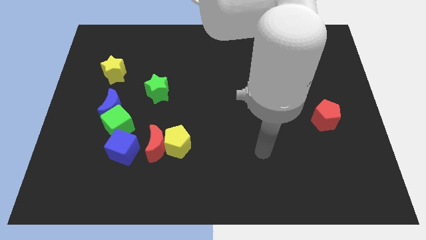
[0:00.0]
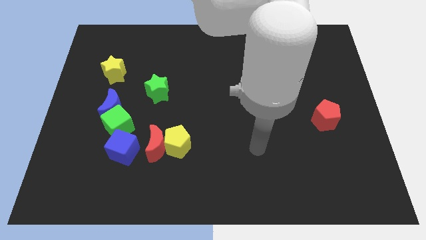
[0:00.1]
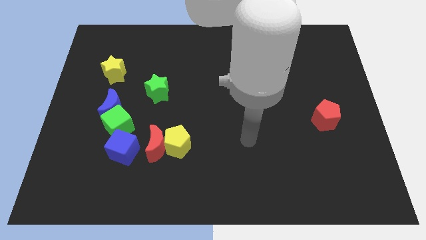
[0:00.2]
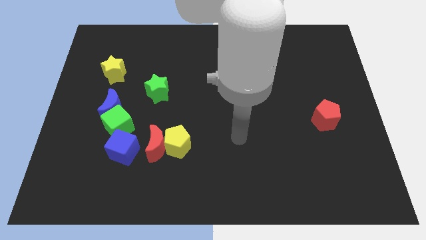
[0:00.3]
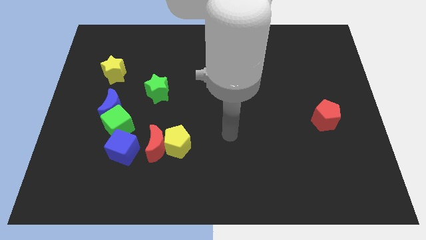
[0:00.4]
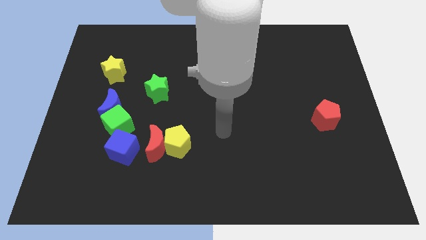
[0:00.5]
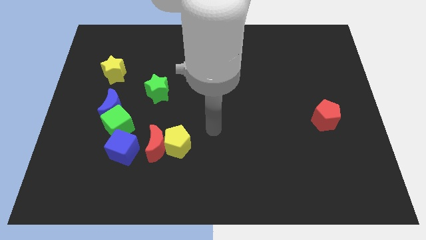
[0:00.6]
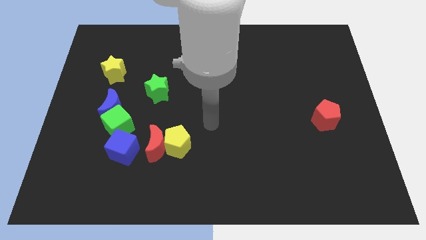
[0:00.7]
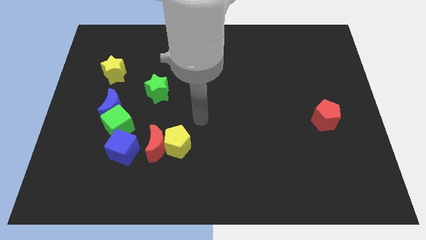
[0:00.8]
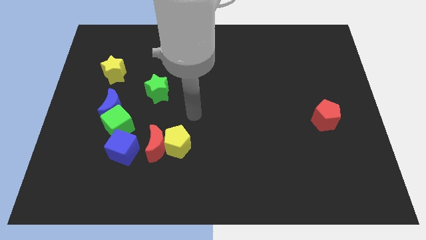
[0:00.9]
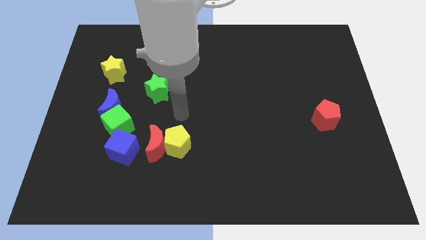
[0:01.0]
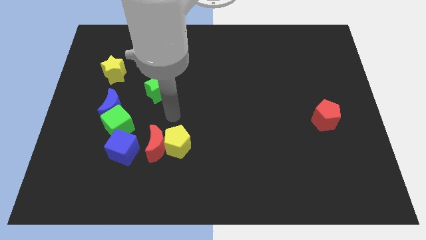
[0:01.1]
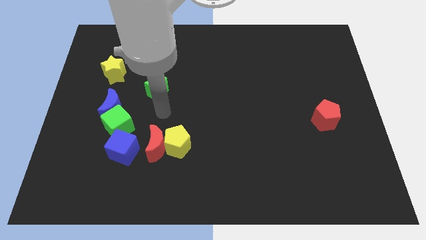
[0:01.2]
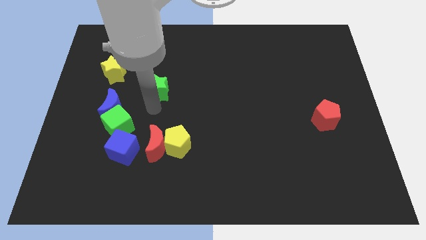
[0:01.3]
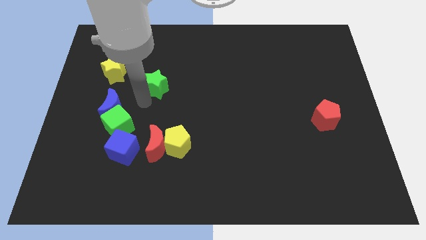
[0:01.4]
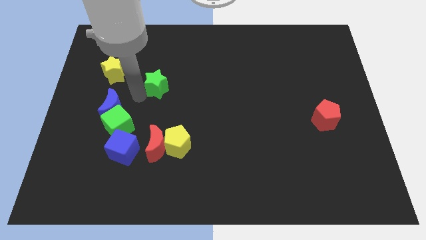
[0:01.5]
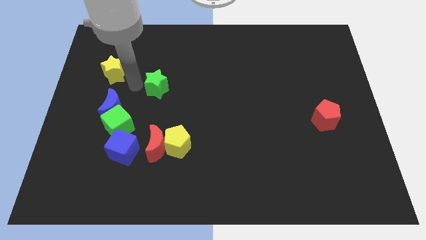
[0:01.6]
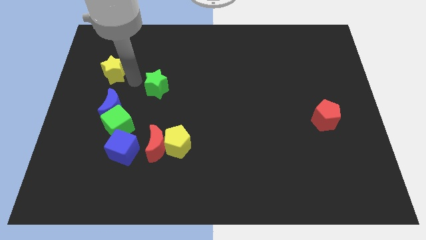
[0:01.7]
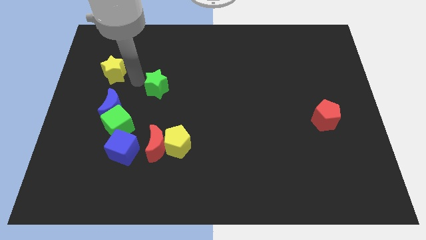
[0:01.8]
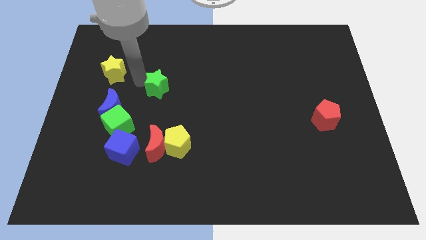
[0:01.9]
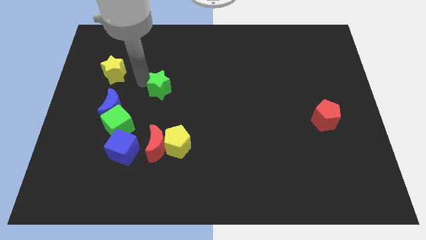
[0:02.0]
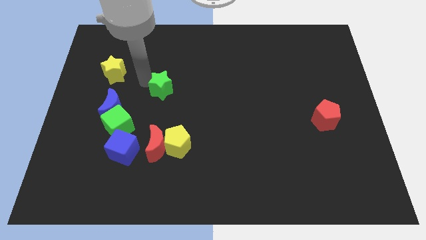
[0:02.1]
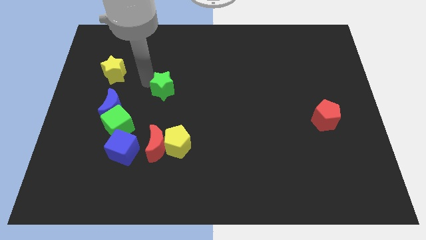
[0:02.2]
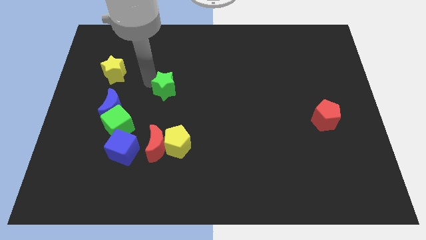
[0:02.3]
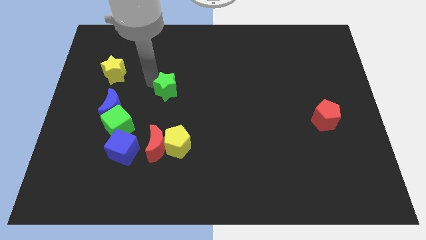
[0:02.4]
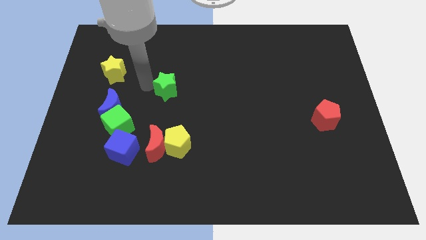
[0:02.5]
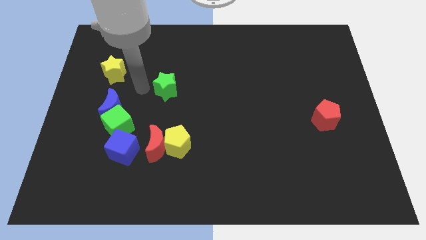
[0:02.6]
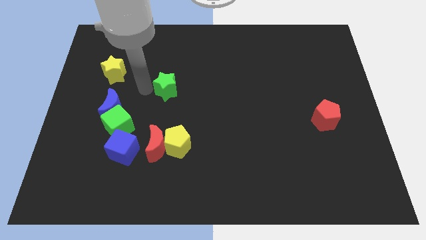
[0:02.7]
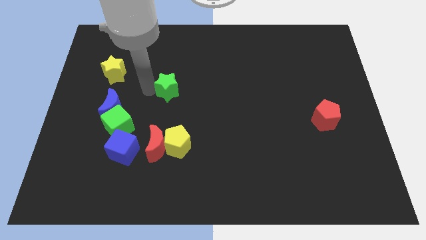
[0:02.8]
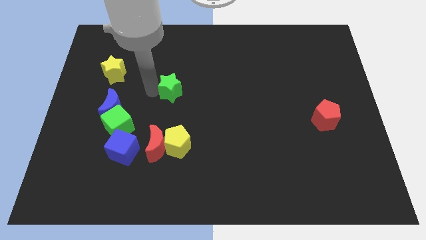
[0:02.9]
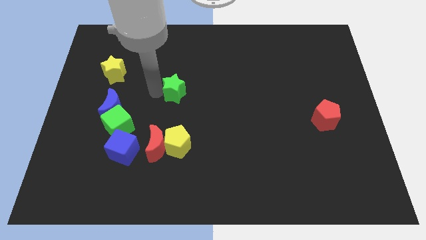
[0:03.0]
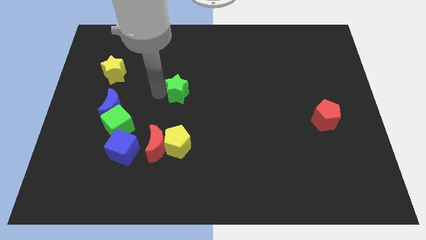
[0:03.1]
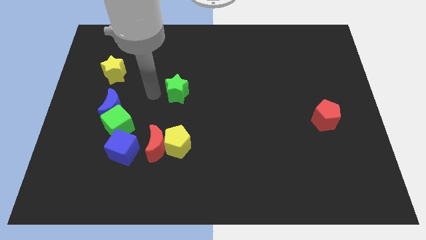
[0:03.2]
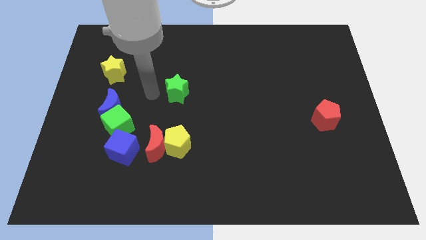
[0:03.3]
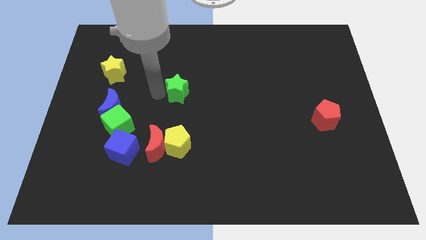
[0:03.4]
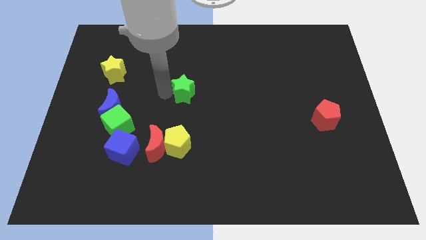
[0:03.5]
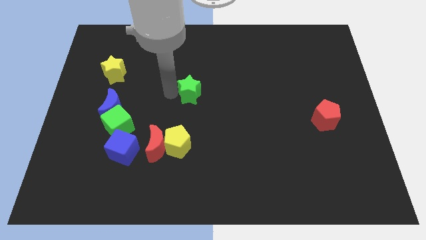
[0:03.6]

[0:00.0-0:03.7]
slightly slide the green star right

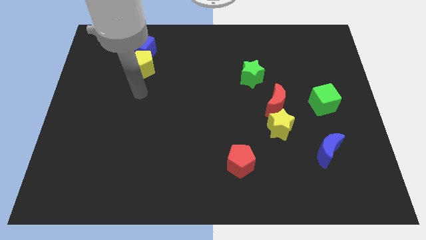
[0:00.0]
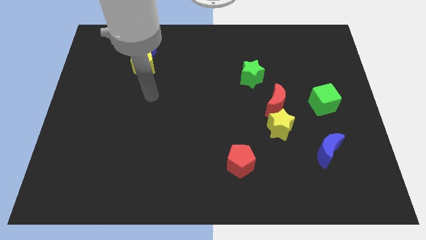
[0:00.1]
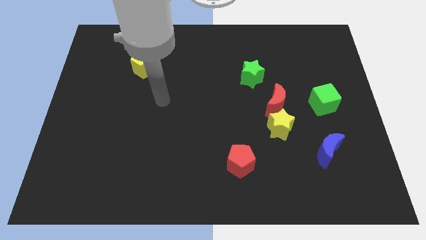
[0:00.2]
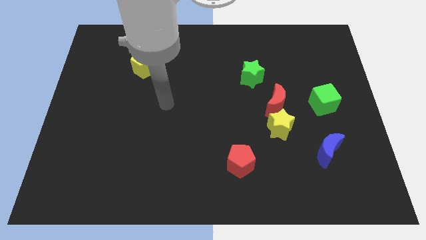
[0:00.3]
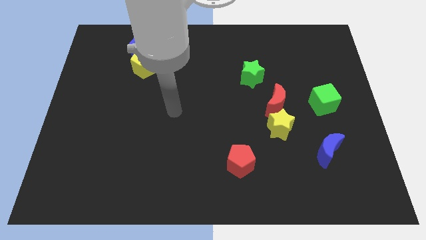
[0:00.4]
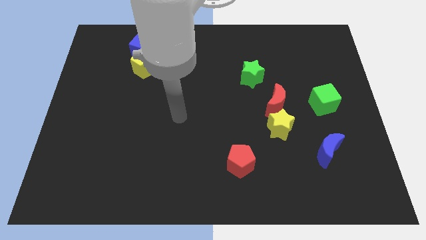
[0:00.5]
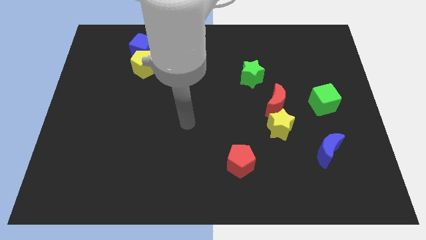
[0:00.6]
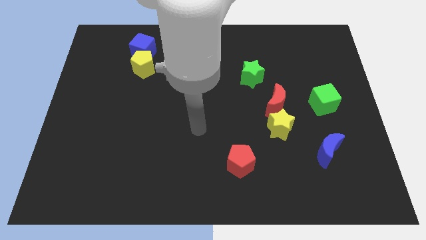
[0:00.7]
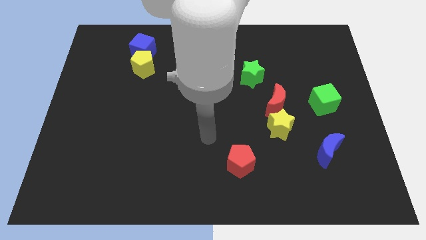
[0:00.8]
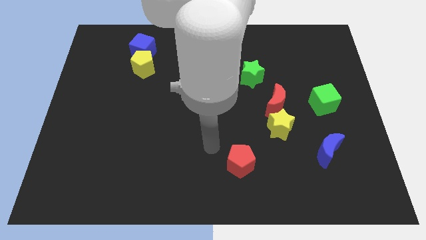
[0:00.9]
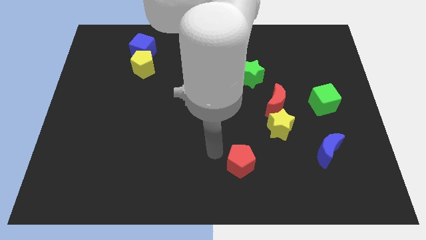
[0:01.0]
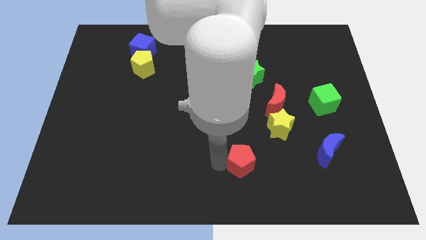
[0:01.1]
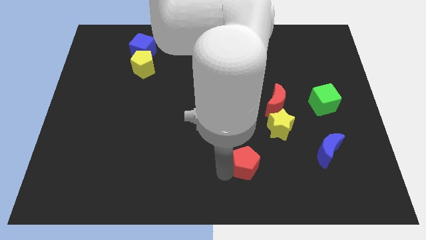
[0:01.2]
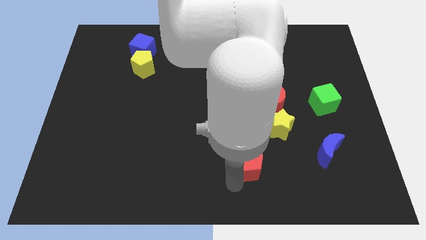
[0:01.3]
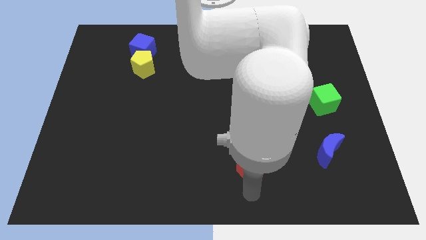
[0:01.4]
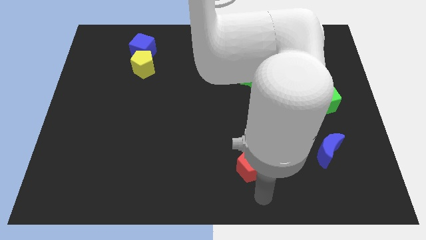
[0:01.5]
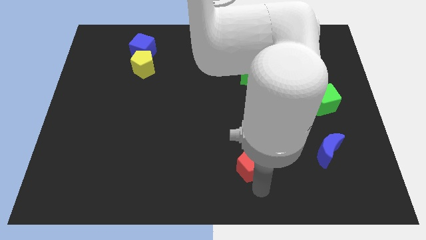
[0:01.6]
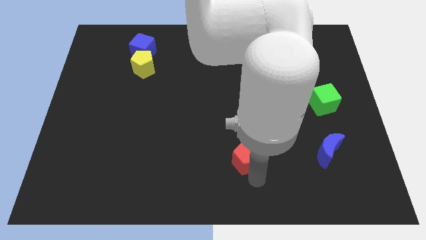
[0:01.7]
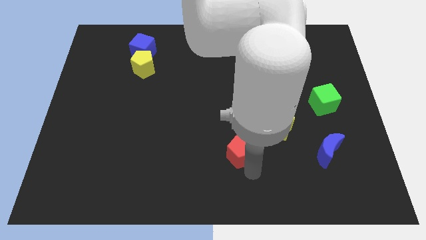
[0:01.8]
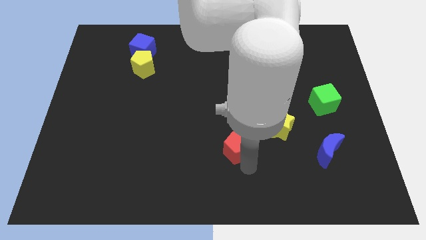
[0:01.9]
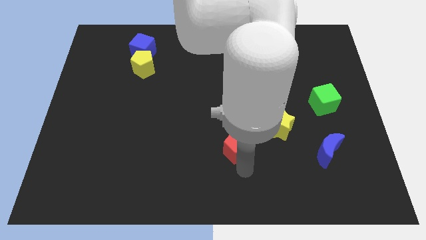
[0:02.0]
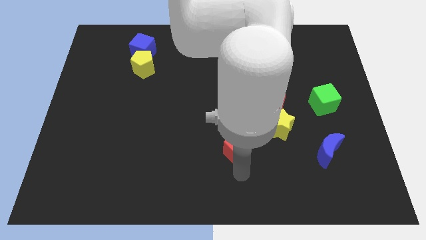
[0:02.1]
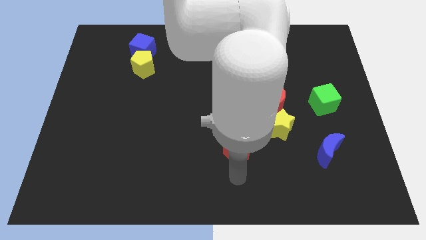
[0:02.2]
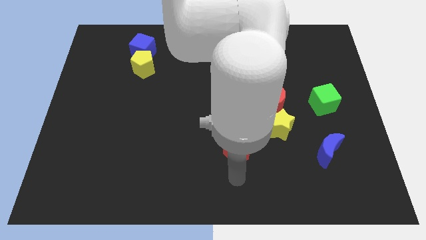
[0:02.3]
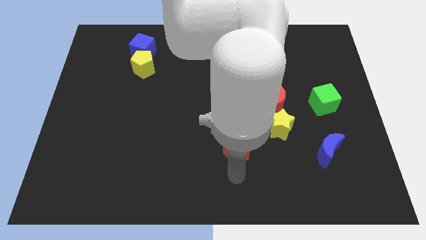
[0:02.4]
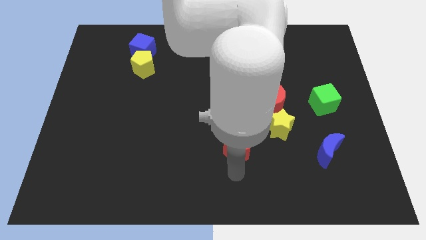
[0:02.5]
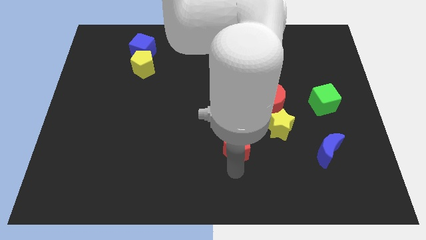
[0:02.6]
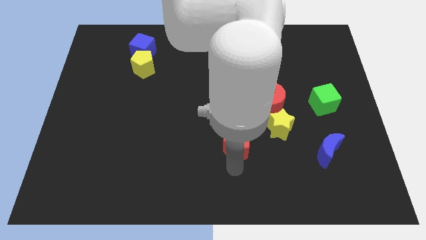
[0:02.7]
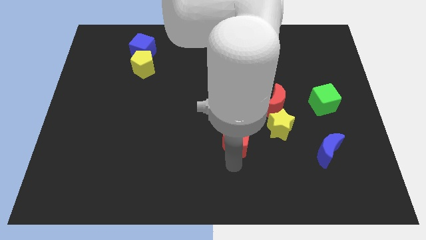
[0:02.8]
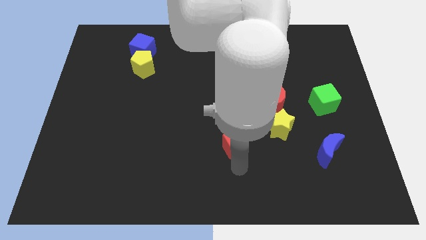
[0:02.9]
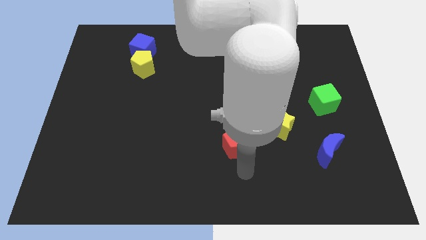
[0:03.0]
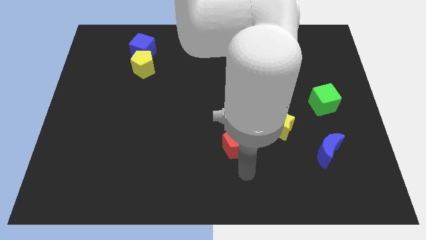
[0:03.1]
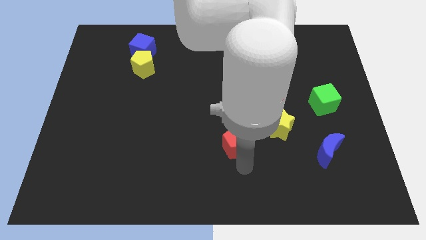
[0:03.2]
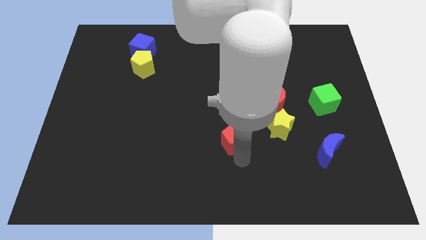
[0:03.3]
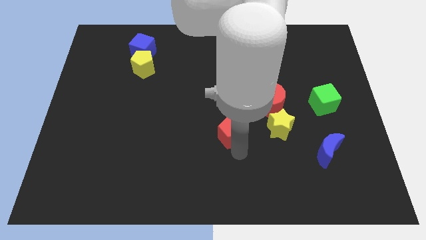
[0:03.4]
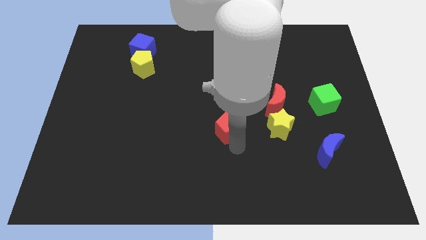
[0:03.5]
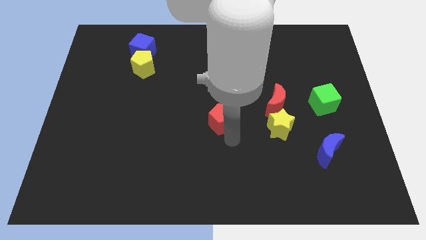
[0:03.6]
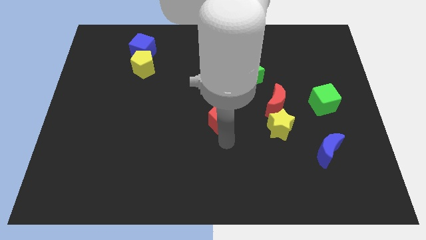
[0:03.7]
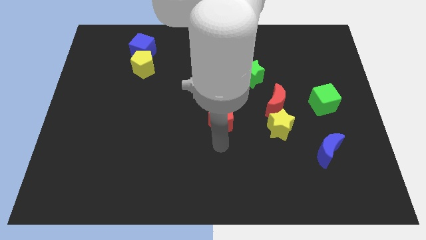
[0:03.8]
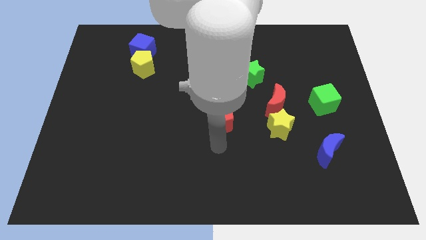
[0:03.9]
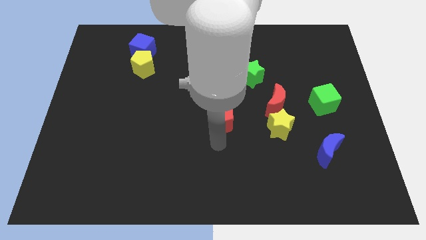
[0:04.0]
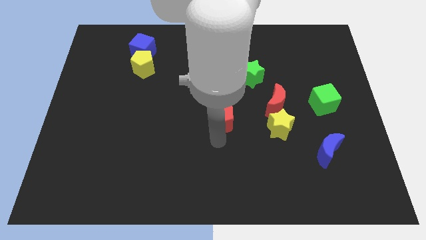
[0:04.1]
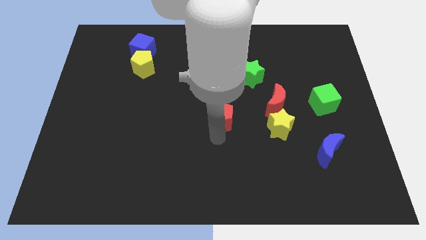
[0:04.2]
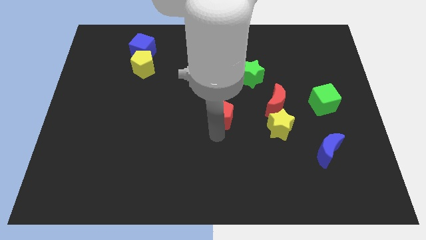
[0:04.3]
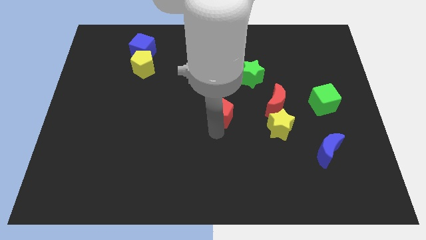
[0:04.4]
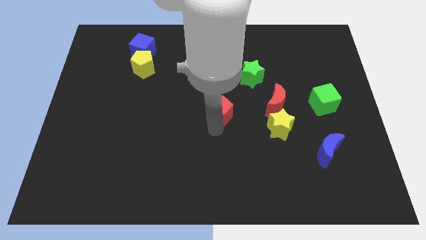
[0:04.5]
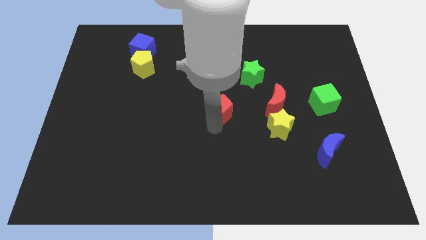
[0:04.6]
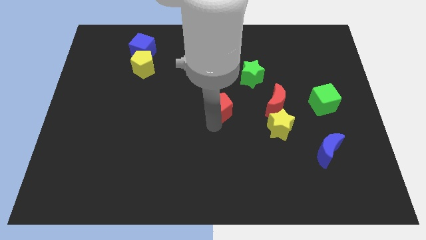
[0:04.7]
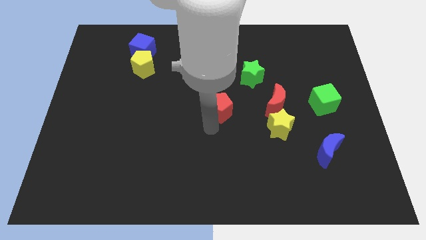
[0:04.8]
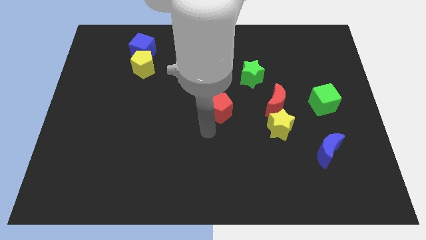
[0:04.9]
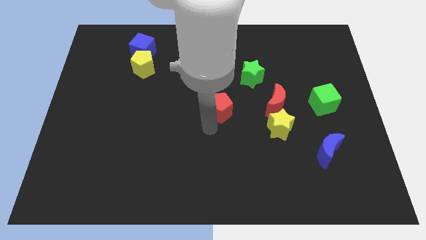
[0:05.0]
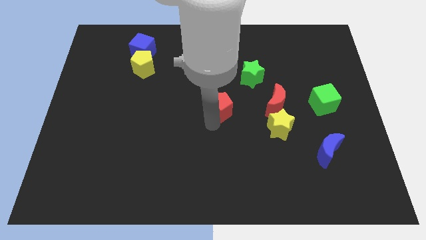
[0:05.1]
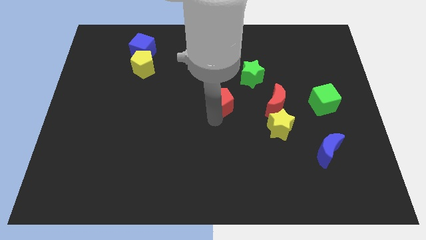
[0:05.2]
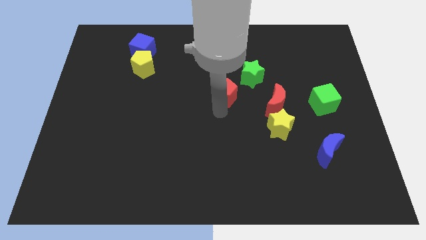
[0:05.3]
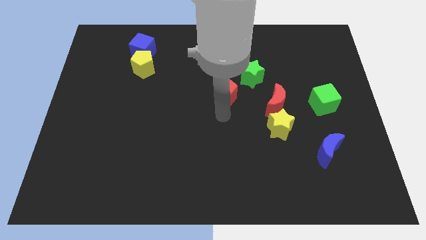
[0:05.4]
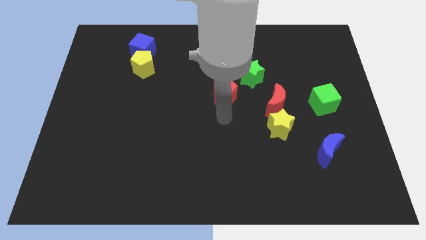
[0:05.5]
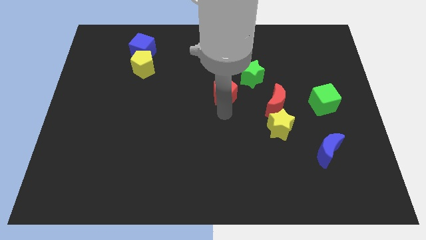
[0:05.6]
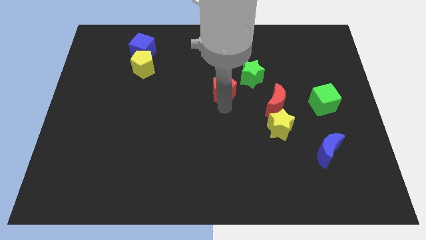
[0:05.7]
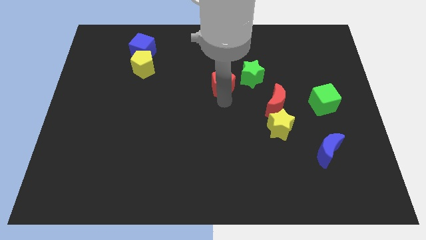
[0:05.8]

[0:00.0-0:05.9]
slide the red pentagon upwards
